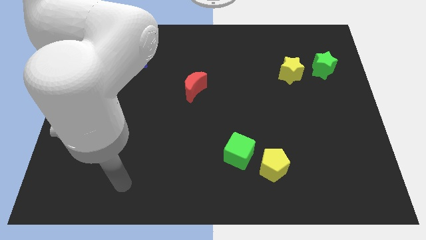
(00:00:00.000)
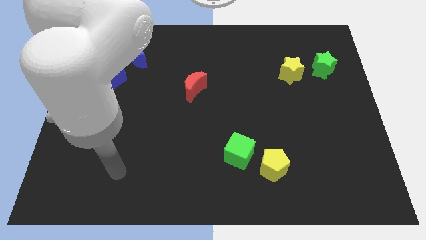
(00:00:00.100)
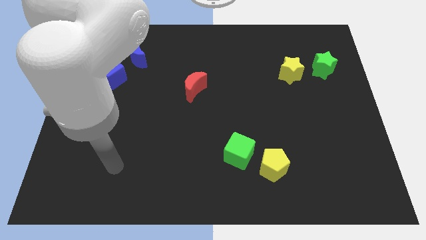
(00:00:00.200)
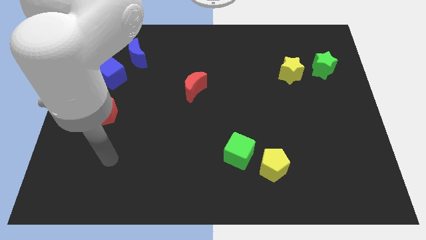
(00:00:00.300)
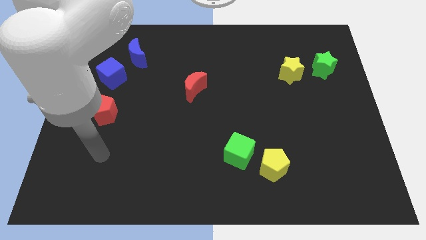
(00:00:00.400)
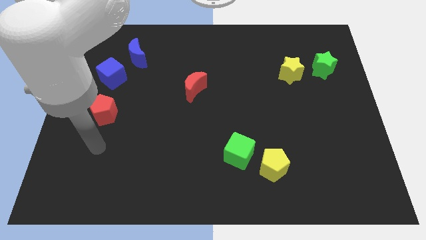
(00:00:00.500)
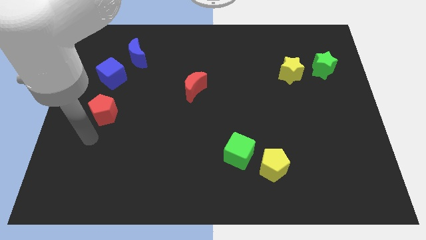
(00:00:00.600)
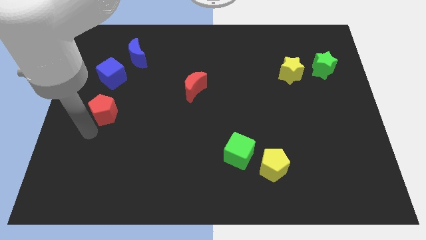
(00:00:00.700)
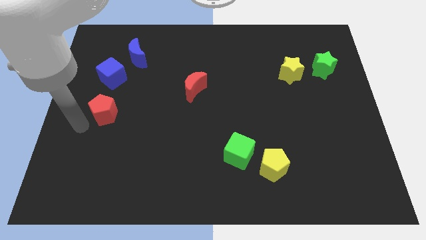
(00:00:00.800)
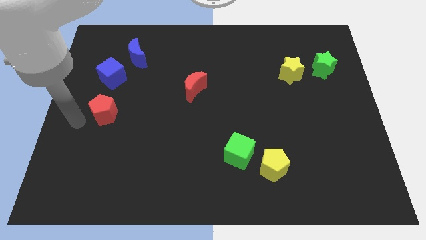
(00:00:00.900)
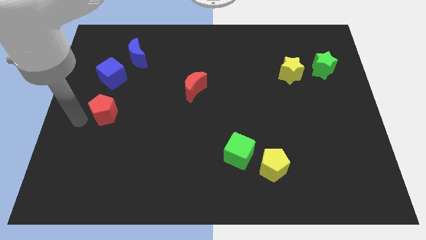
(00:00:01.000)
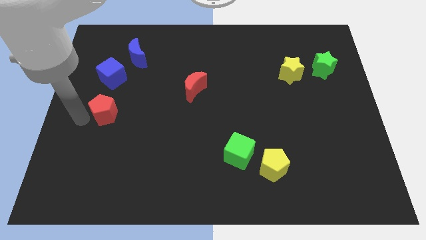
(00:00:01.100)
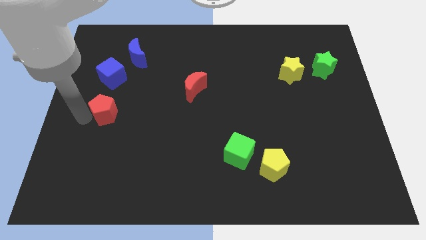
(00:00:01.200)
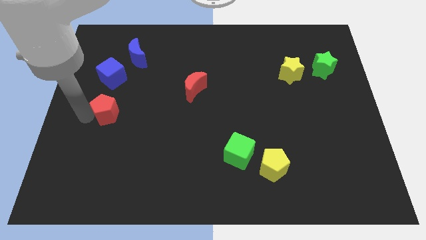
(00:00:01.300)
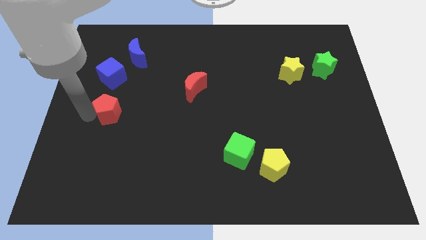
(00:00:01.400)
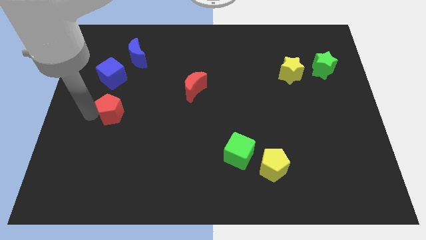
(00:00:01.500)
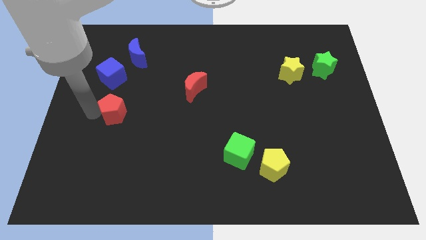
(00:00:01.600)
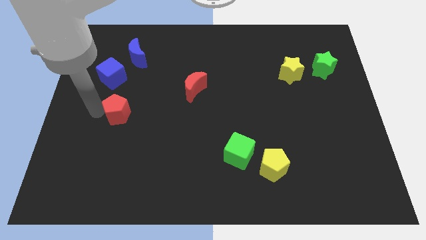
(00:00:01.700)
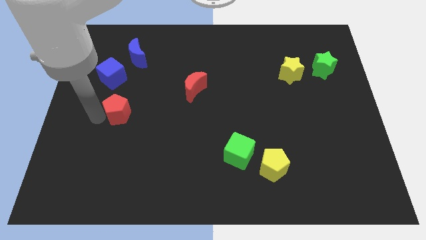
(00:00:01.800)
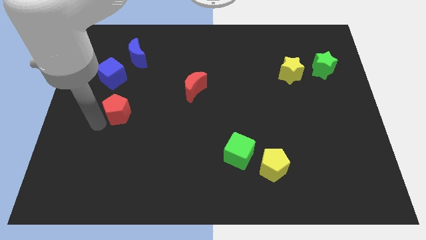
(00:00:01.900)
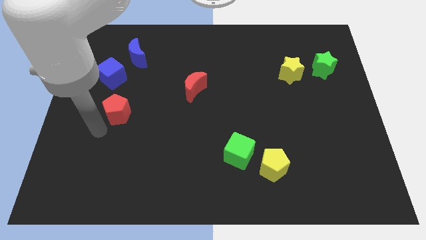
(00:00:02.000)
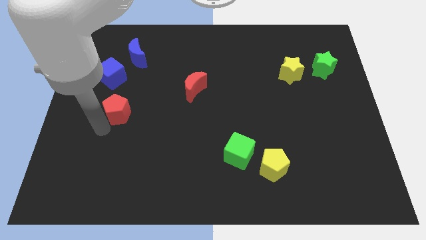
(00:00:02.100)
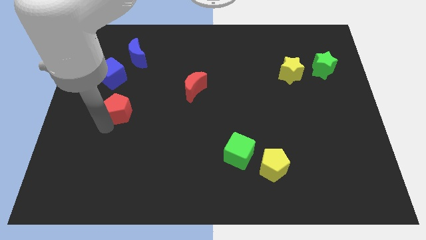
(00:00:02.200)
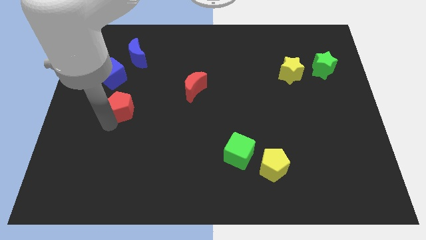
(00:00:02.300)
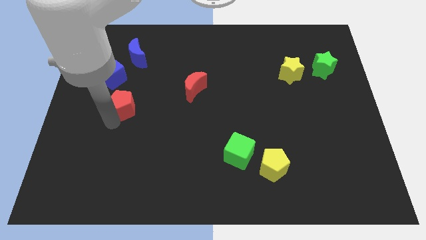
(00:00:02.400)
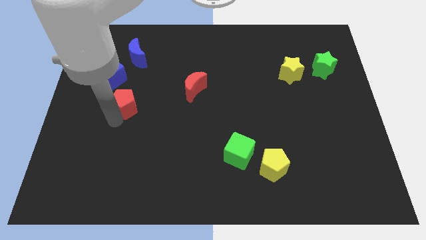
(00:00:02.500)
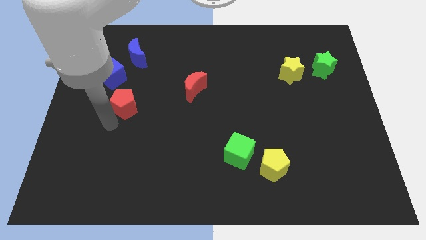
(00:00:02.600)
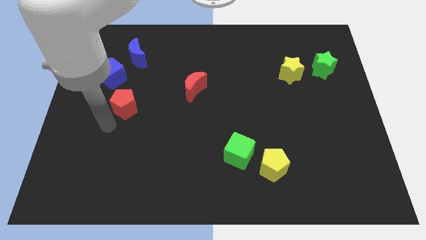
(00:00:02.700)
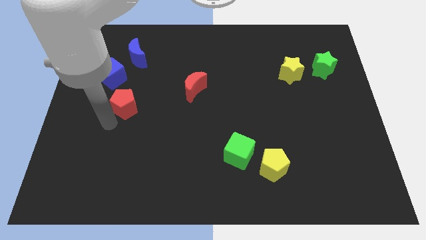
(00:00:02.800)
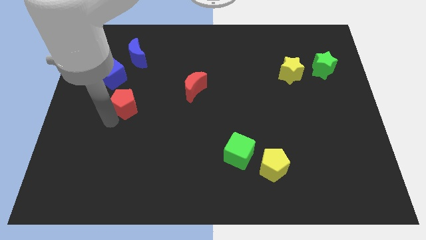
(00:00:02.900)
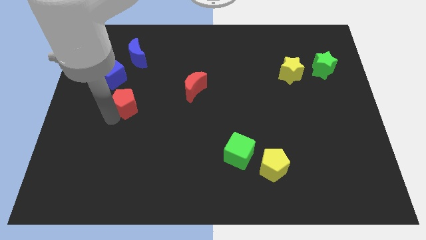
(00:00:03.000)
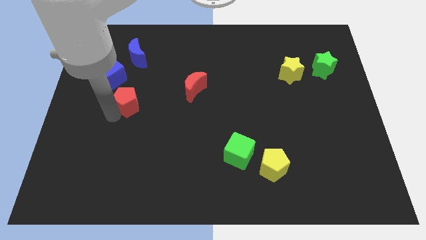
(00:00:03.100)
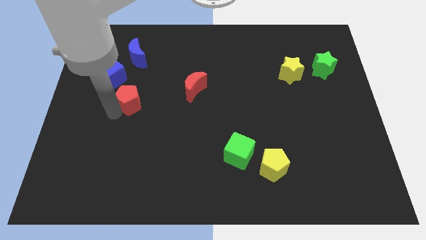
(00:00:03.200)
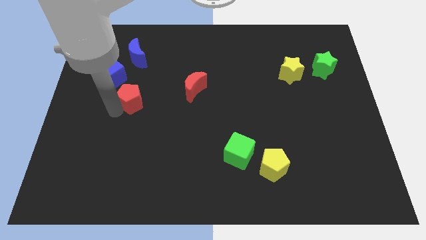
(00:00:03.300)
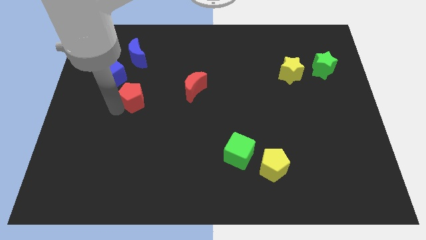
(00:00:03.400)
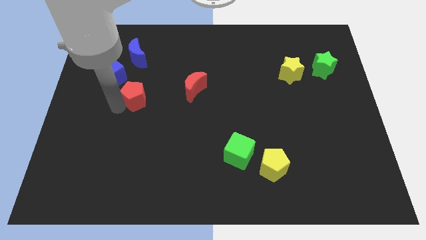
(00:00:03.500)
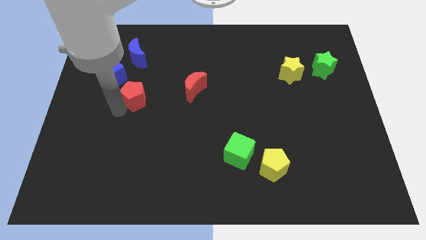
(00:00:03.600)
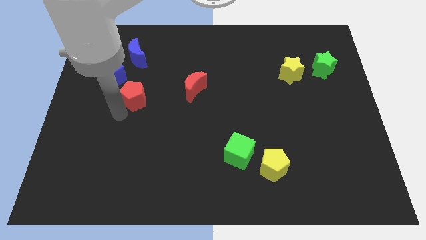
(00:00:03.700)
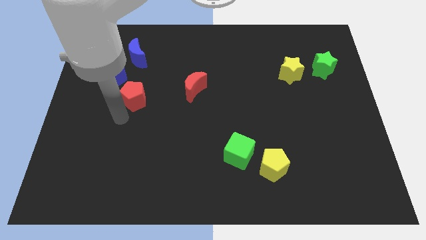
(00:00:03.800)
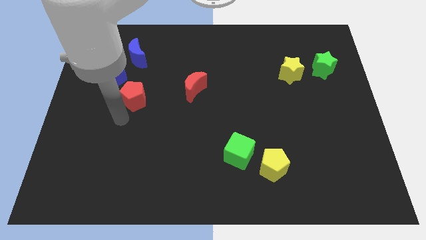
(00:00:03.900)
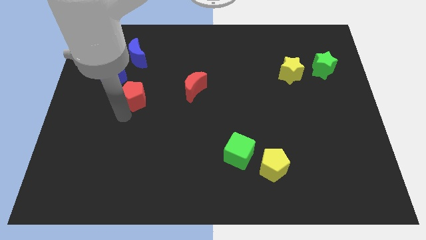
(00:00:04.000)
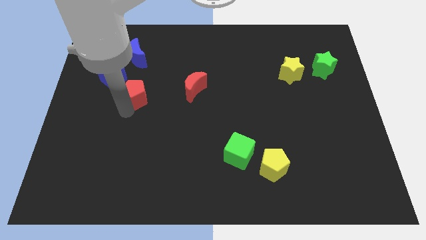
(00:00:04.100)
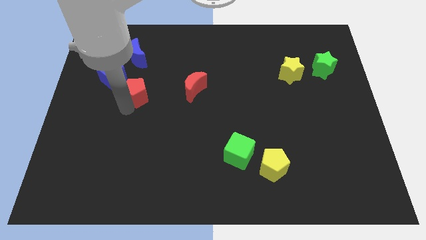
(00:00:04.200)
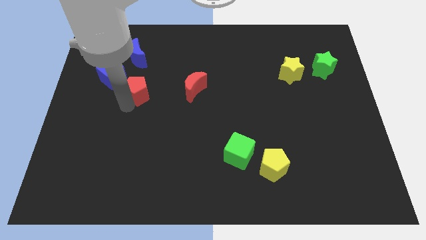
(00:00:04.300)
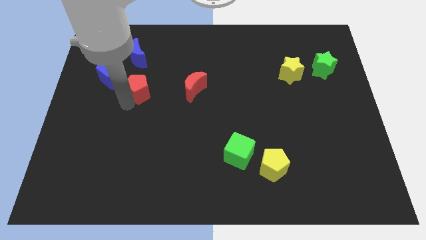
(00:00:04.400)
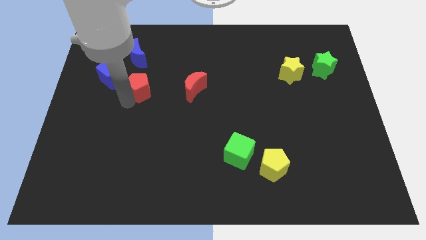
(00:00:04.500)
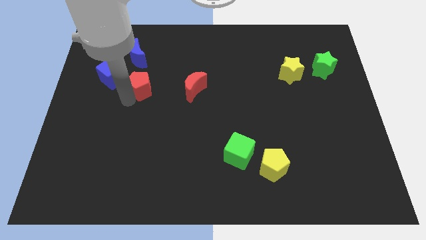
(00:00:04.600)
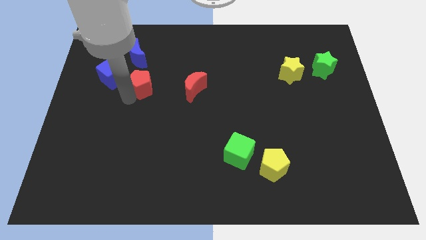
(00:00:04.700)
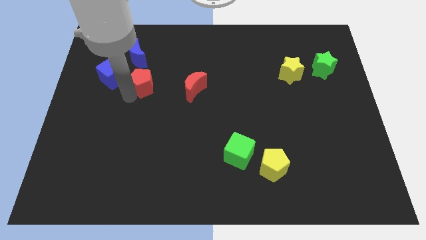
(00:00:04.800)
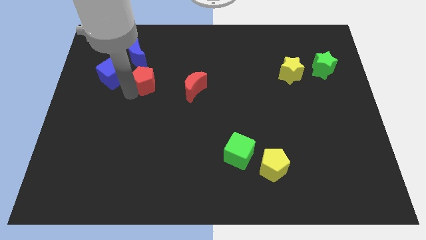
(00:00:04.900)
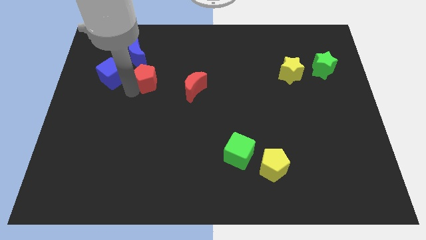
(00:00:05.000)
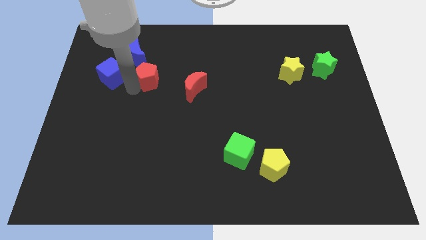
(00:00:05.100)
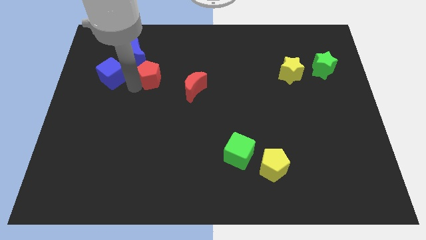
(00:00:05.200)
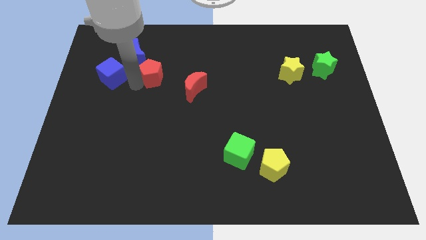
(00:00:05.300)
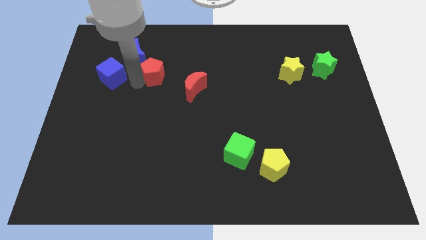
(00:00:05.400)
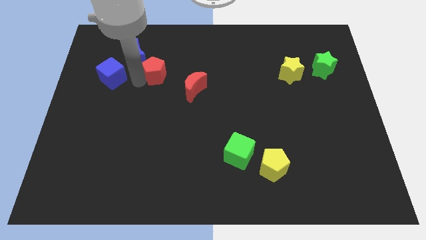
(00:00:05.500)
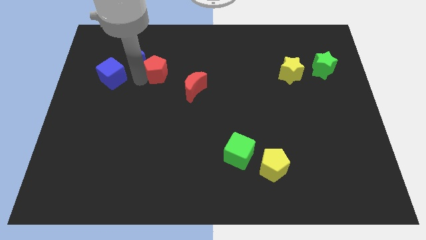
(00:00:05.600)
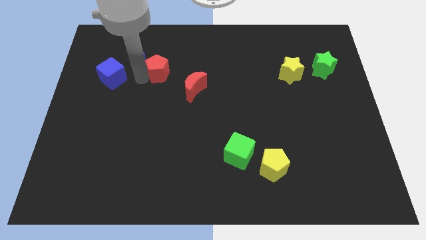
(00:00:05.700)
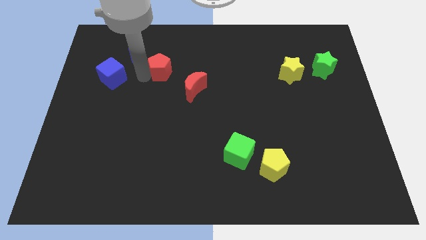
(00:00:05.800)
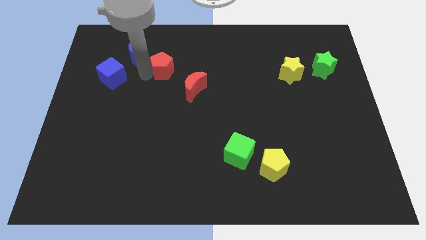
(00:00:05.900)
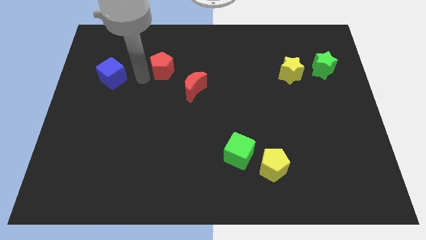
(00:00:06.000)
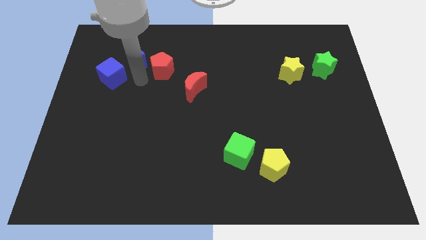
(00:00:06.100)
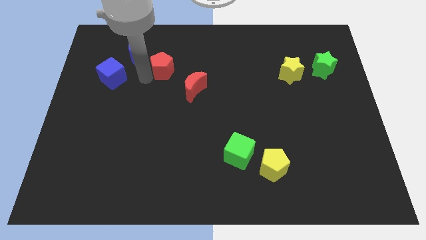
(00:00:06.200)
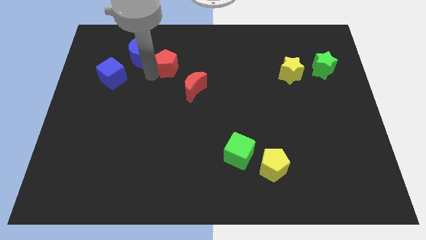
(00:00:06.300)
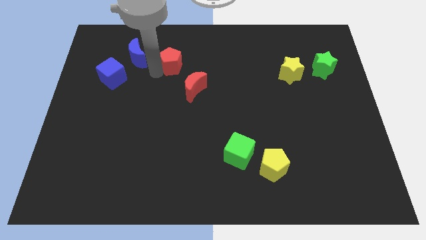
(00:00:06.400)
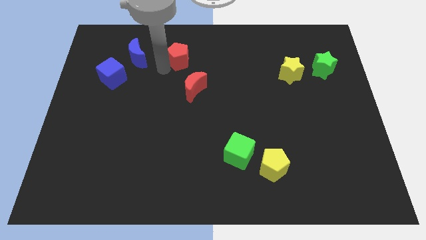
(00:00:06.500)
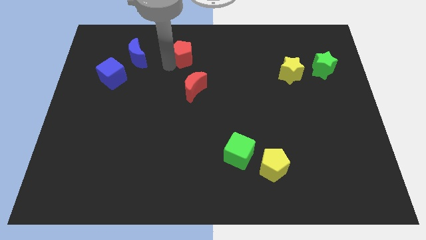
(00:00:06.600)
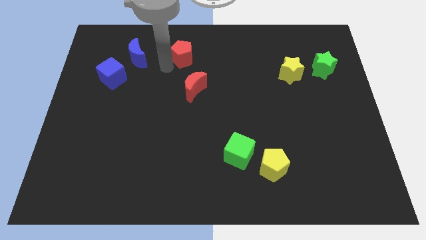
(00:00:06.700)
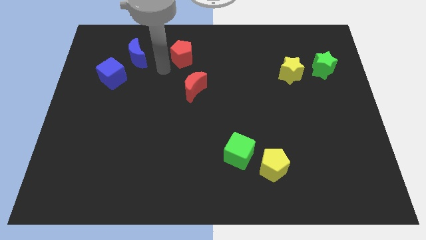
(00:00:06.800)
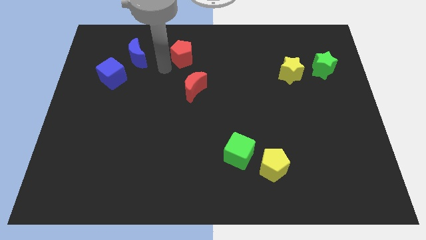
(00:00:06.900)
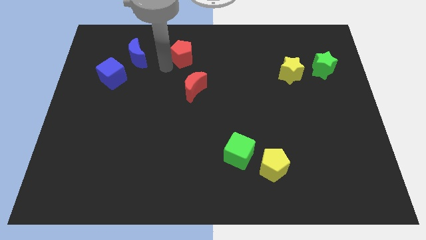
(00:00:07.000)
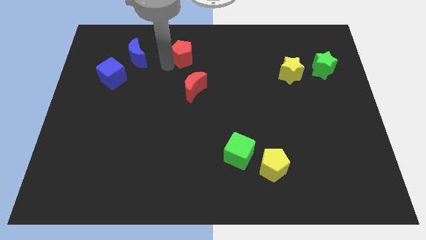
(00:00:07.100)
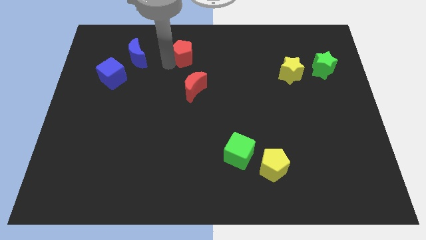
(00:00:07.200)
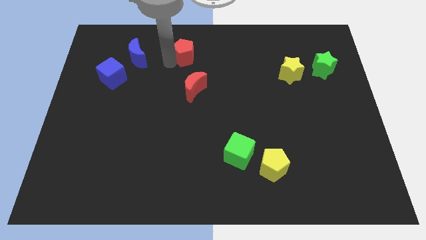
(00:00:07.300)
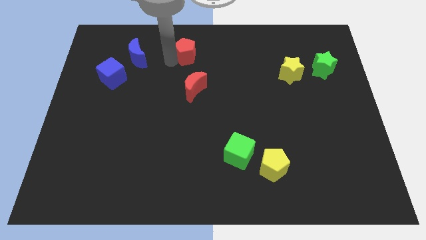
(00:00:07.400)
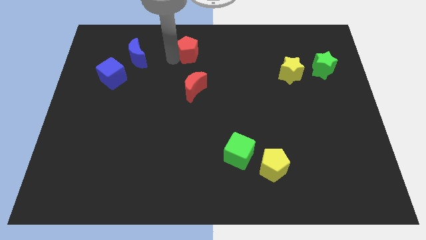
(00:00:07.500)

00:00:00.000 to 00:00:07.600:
push the red pentagon to the towards your base
